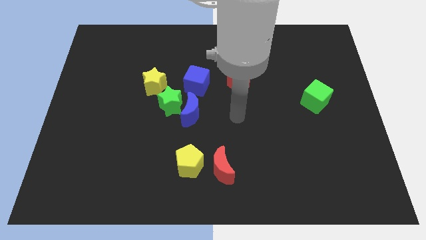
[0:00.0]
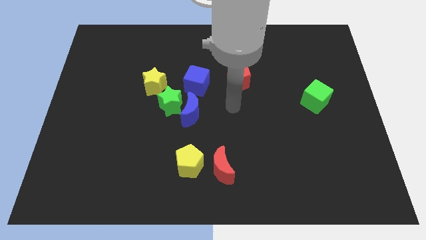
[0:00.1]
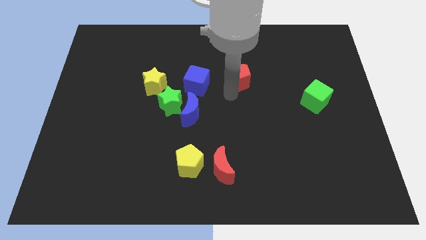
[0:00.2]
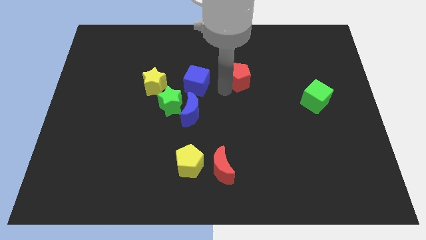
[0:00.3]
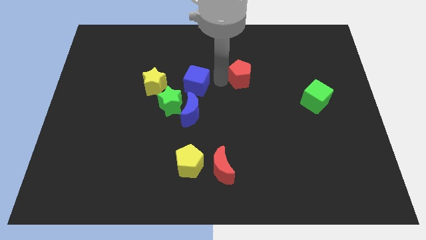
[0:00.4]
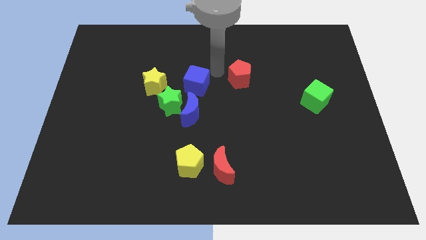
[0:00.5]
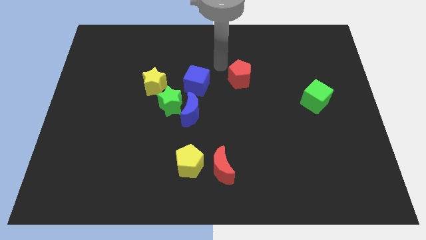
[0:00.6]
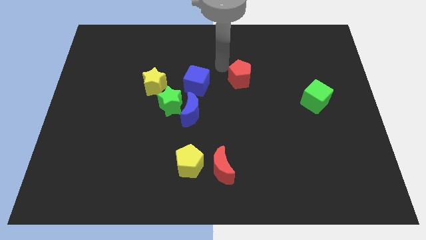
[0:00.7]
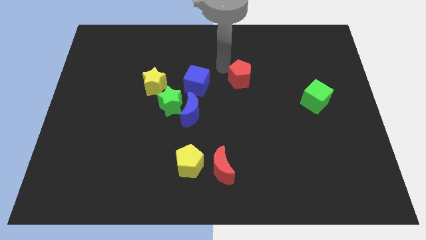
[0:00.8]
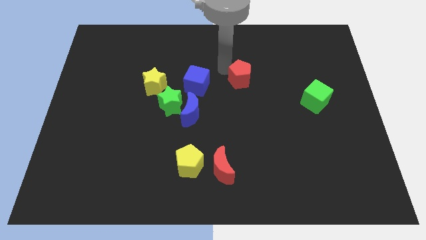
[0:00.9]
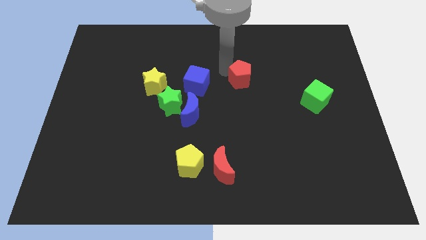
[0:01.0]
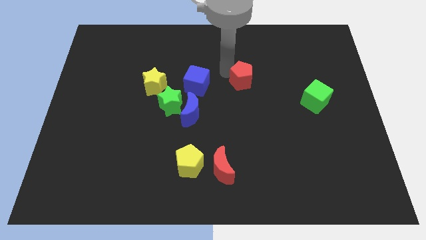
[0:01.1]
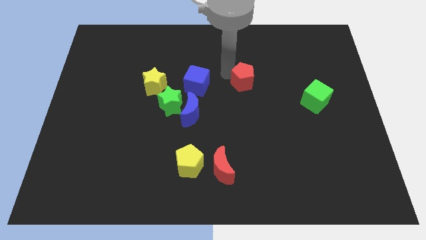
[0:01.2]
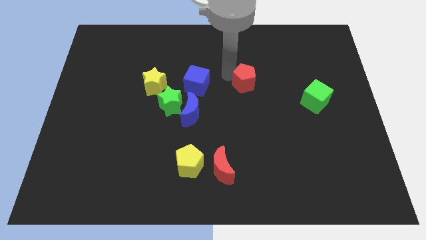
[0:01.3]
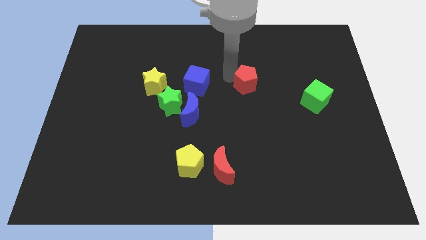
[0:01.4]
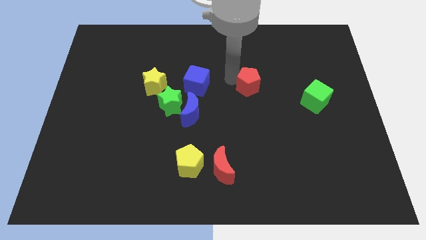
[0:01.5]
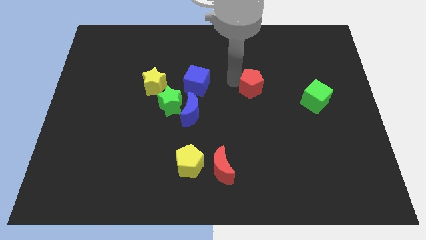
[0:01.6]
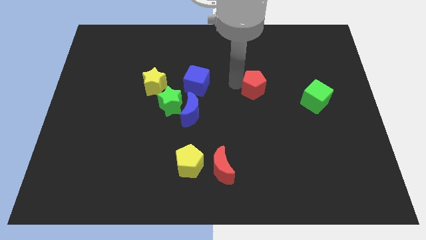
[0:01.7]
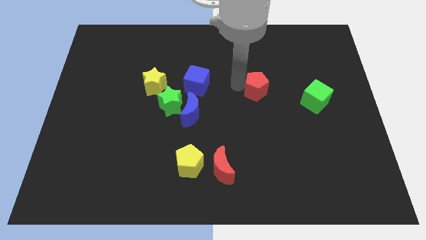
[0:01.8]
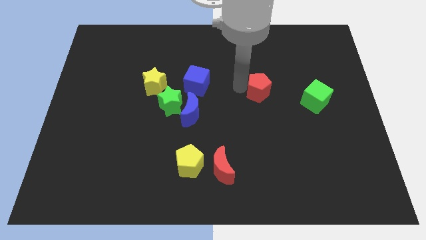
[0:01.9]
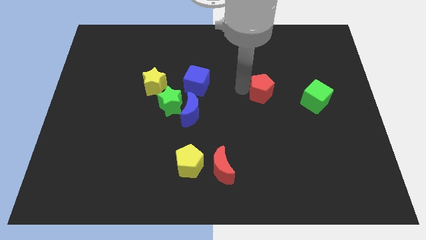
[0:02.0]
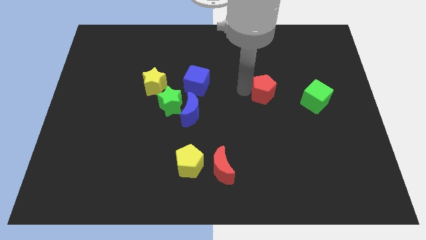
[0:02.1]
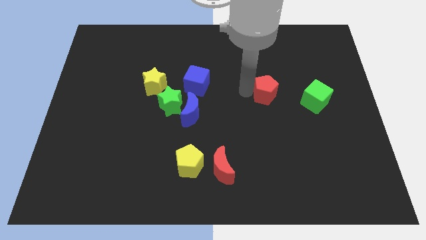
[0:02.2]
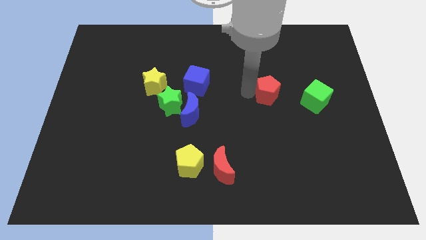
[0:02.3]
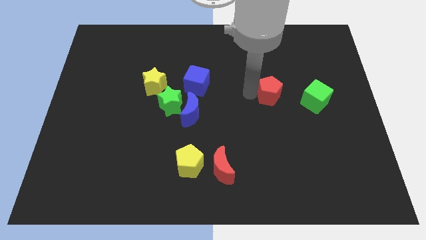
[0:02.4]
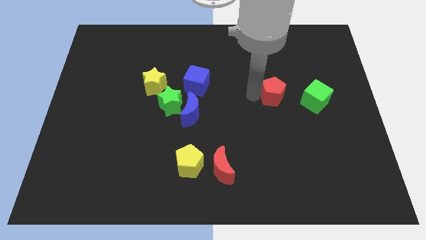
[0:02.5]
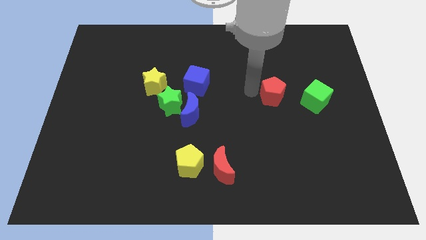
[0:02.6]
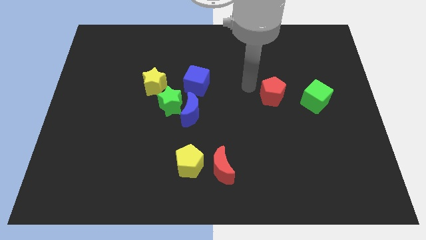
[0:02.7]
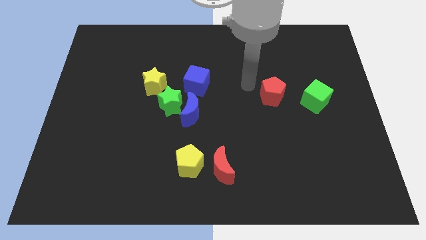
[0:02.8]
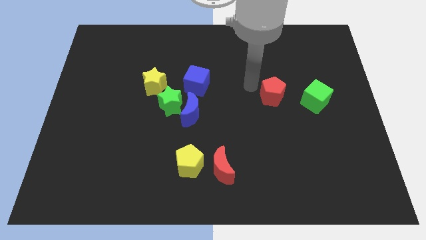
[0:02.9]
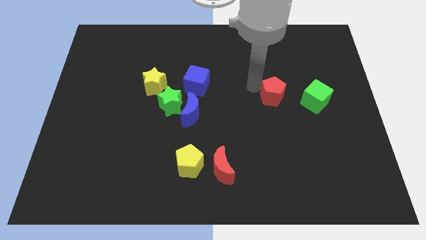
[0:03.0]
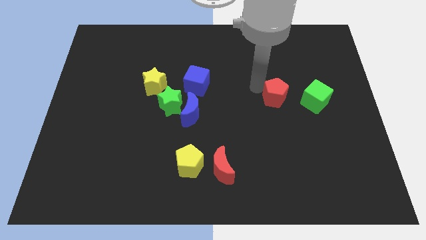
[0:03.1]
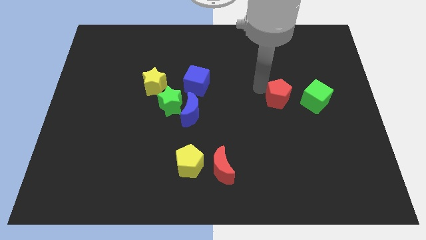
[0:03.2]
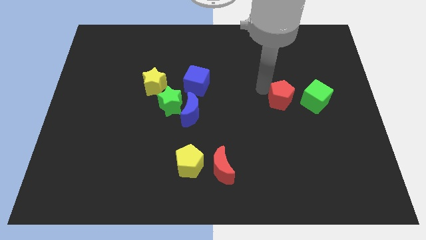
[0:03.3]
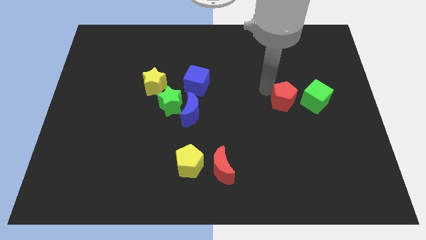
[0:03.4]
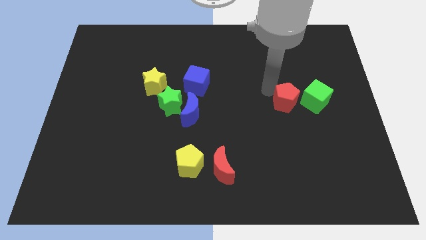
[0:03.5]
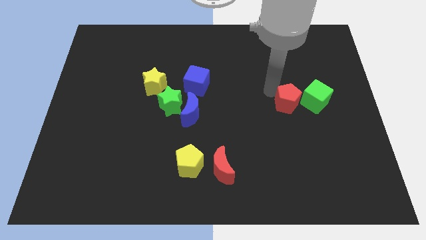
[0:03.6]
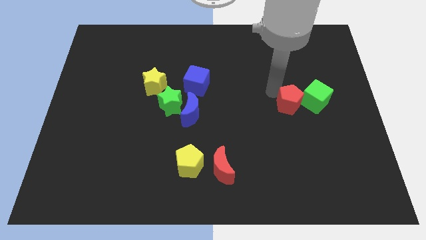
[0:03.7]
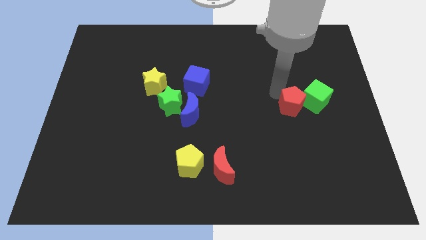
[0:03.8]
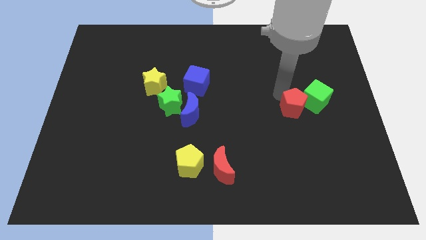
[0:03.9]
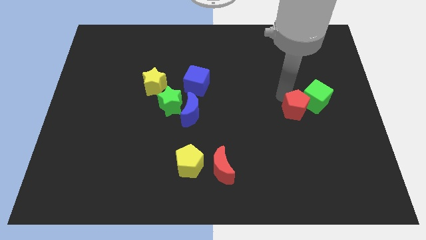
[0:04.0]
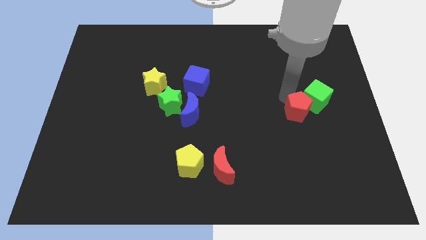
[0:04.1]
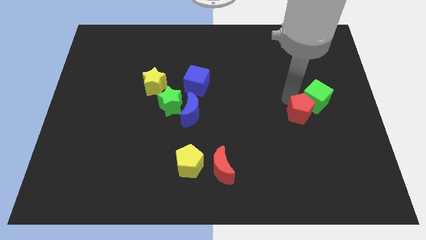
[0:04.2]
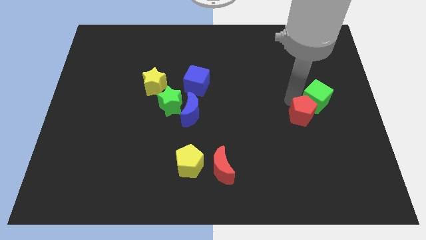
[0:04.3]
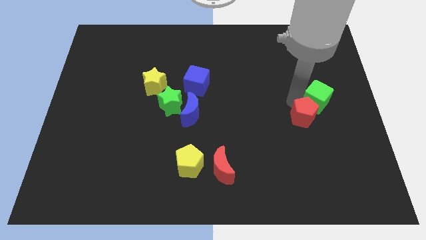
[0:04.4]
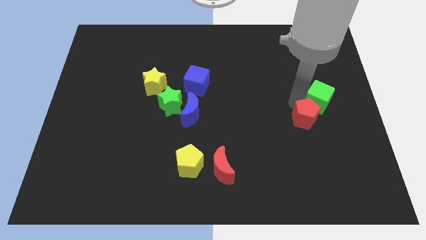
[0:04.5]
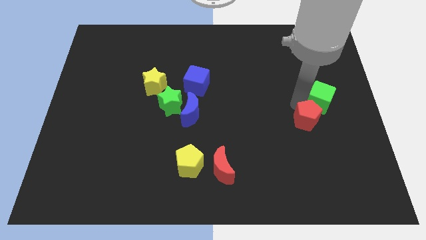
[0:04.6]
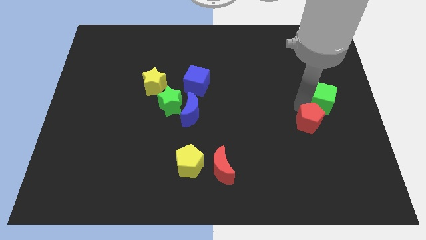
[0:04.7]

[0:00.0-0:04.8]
push the red pentagon down and to the right

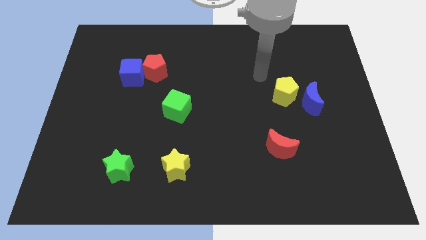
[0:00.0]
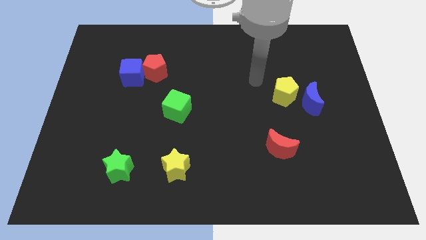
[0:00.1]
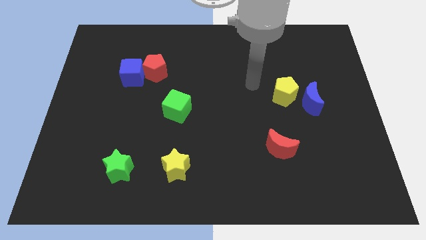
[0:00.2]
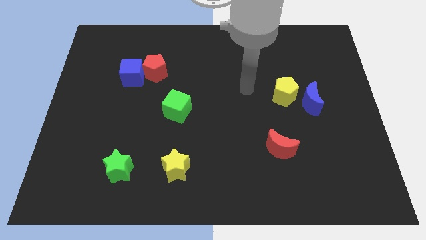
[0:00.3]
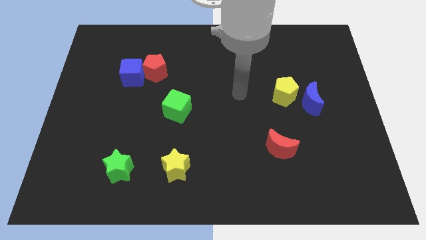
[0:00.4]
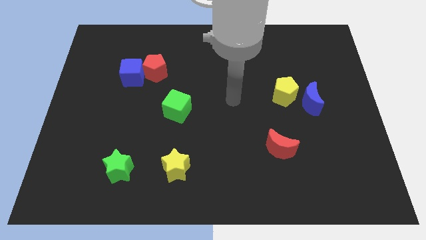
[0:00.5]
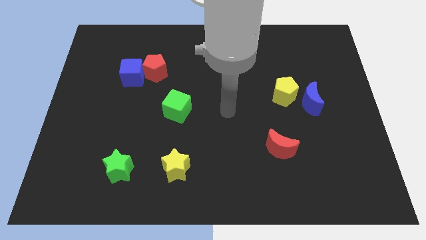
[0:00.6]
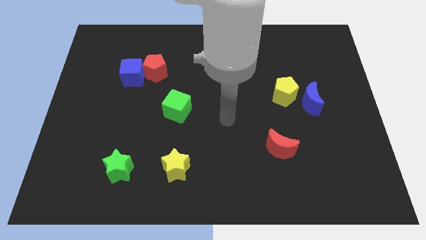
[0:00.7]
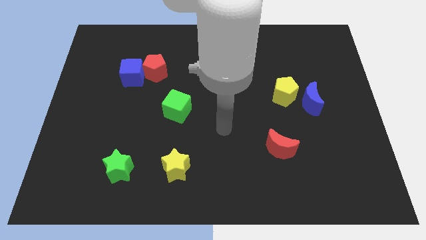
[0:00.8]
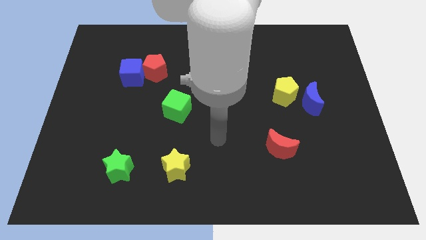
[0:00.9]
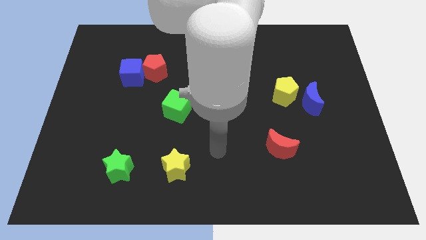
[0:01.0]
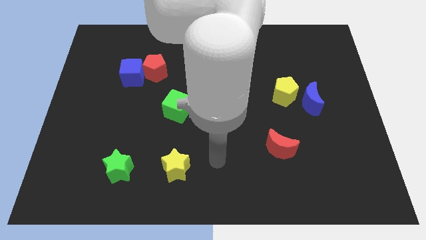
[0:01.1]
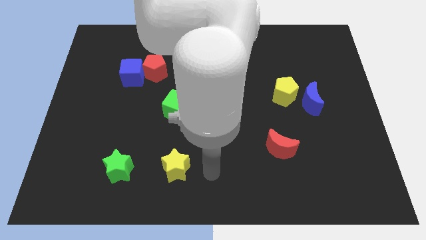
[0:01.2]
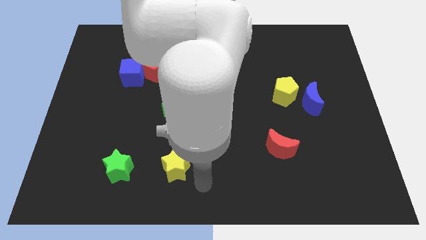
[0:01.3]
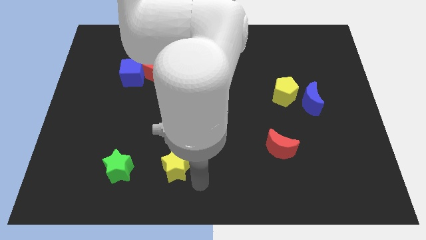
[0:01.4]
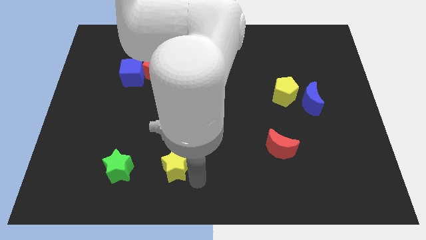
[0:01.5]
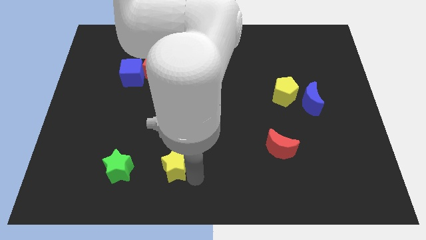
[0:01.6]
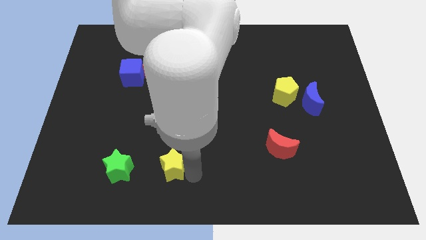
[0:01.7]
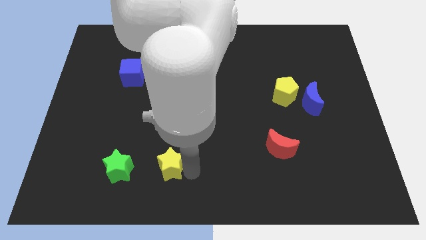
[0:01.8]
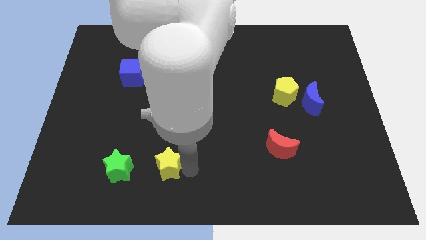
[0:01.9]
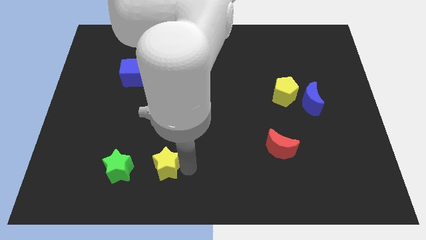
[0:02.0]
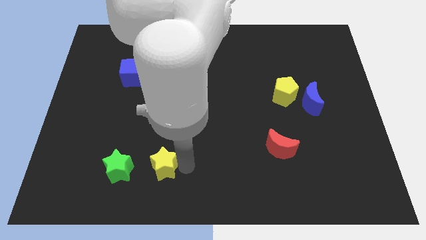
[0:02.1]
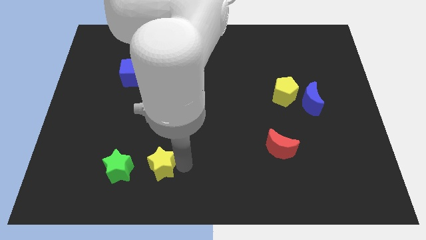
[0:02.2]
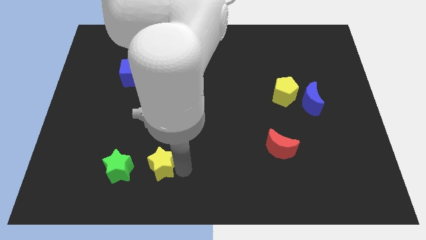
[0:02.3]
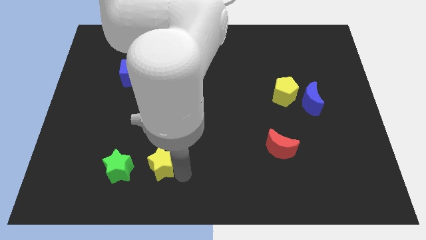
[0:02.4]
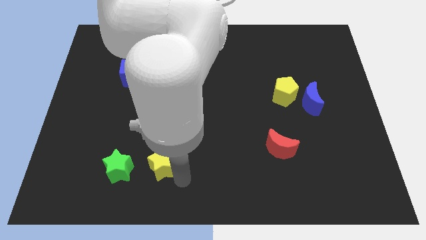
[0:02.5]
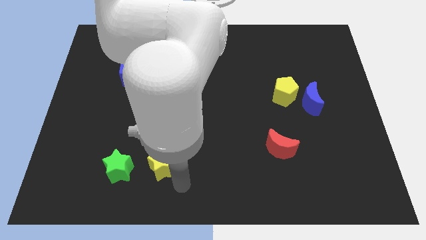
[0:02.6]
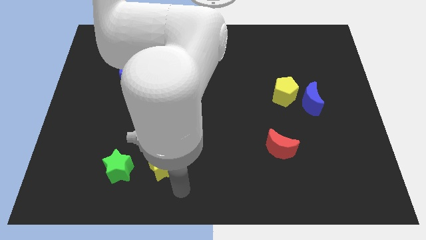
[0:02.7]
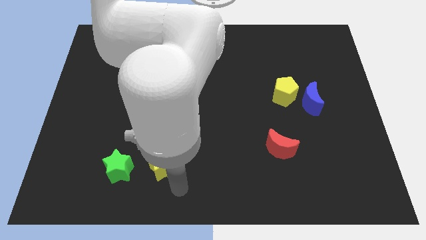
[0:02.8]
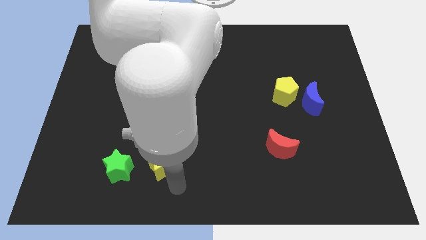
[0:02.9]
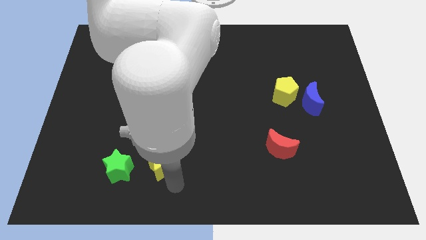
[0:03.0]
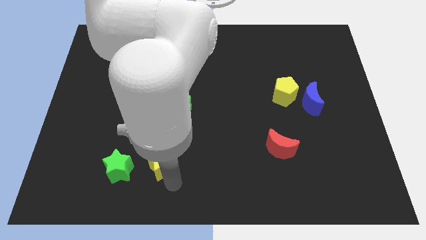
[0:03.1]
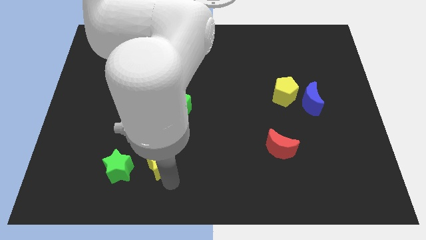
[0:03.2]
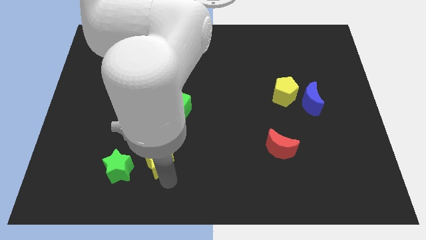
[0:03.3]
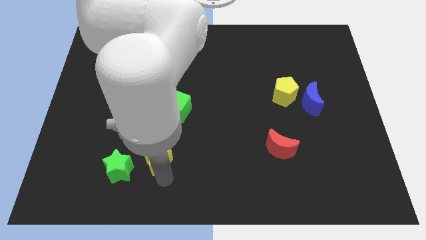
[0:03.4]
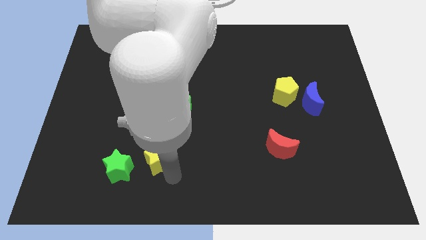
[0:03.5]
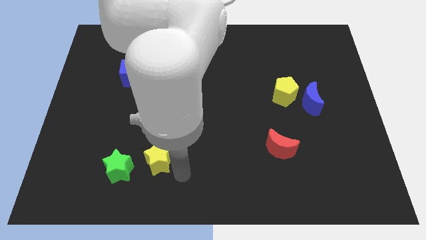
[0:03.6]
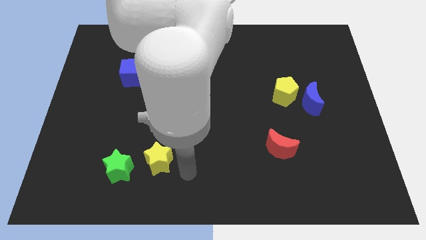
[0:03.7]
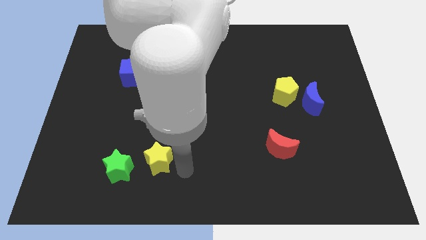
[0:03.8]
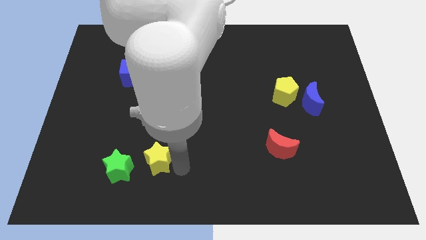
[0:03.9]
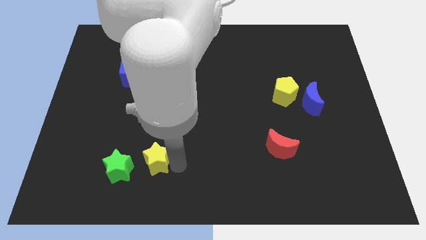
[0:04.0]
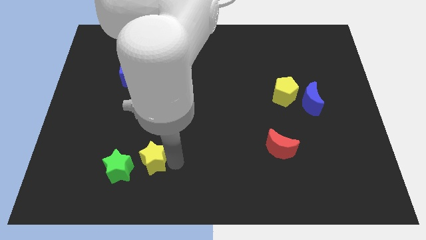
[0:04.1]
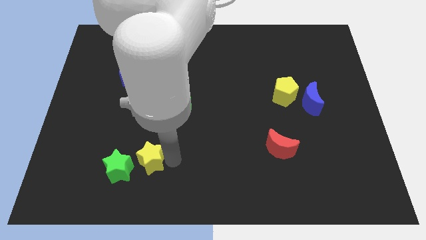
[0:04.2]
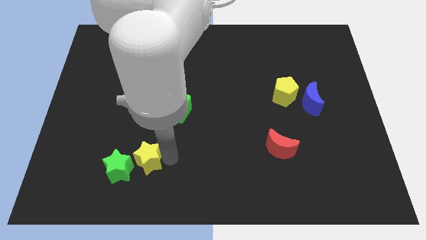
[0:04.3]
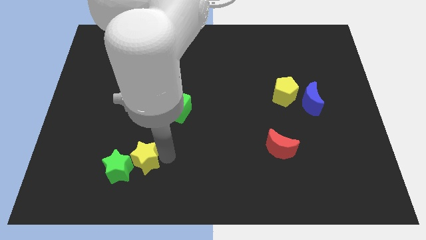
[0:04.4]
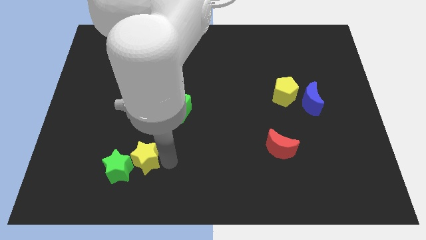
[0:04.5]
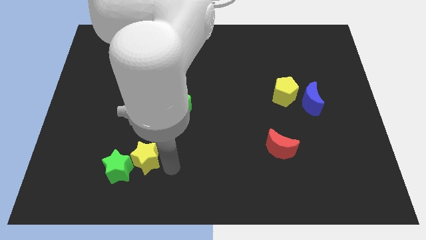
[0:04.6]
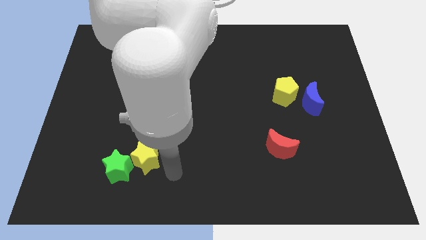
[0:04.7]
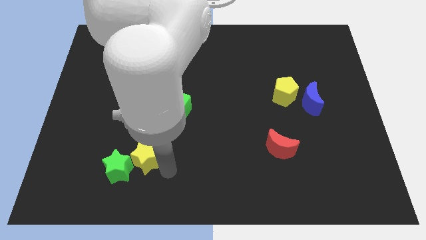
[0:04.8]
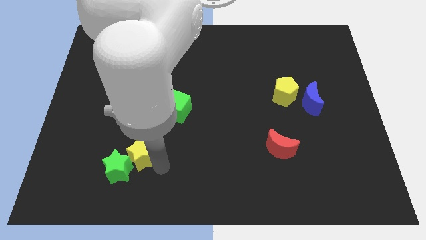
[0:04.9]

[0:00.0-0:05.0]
slightly slide the yellow star left
